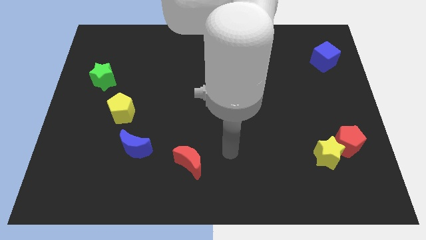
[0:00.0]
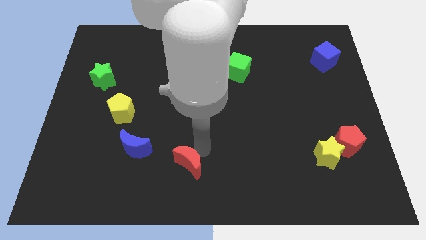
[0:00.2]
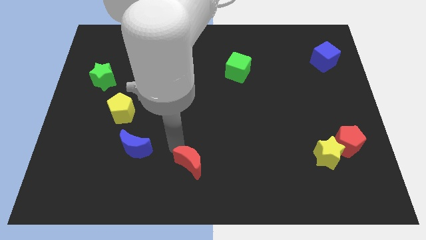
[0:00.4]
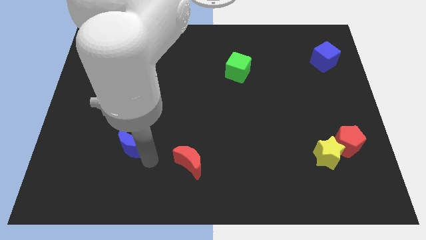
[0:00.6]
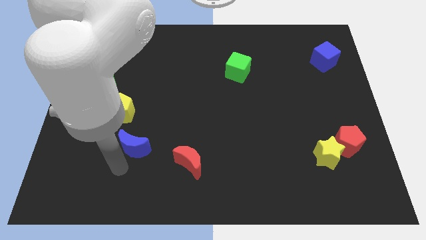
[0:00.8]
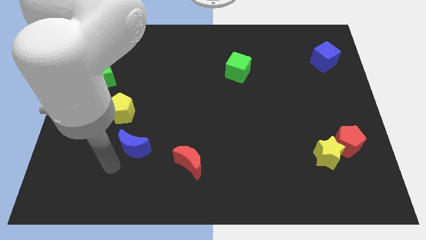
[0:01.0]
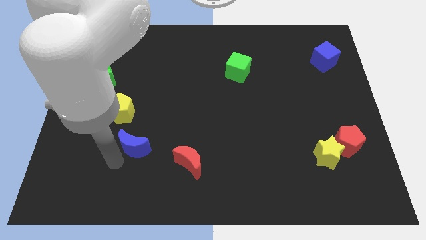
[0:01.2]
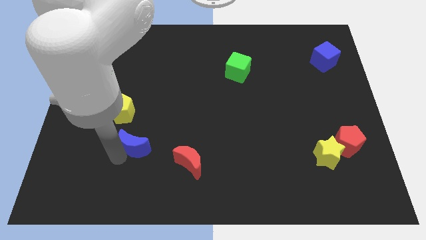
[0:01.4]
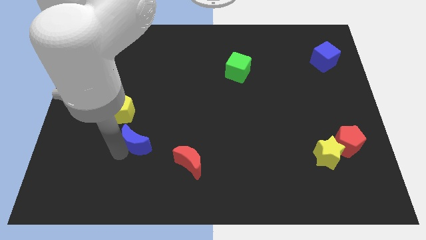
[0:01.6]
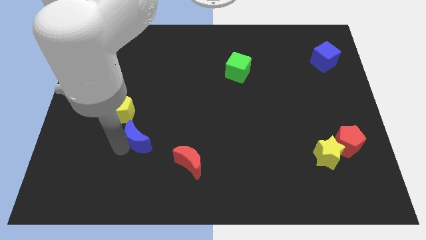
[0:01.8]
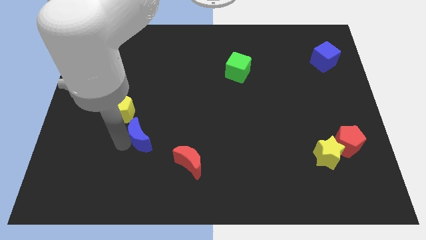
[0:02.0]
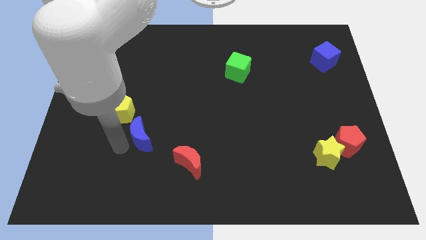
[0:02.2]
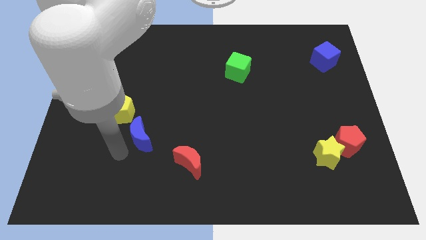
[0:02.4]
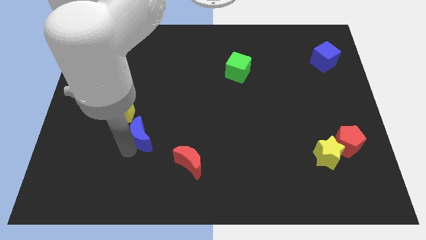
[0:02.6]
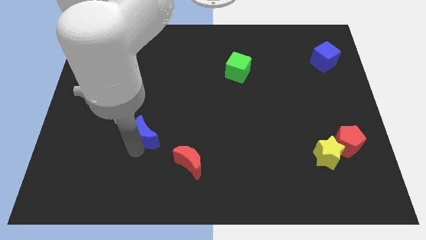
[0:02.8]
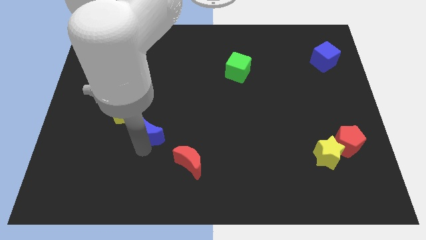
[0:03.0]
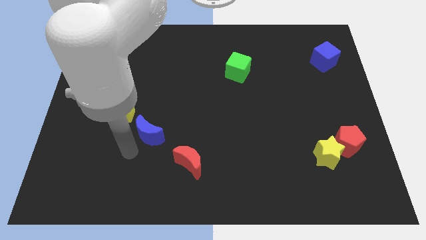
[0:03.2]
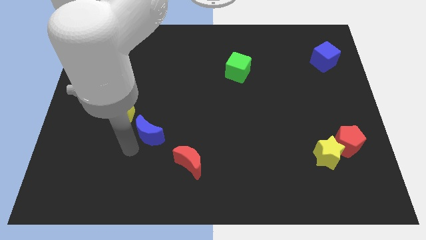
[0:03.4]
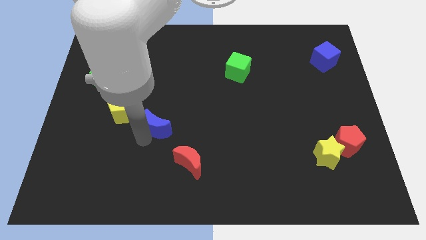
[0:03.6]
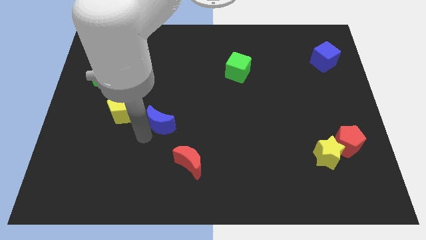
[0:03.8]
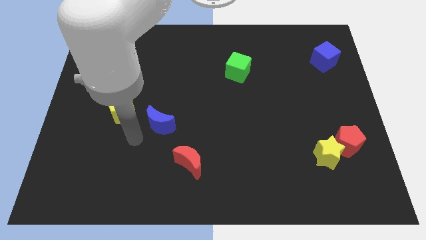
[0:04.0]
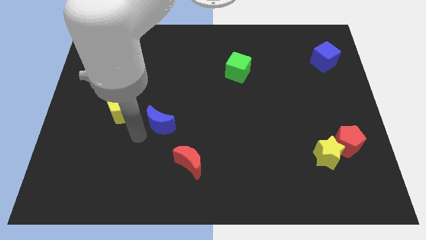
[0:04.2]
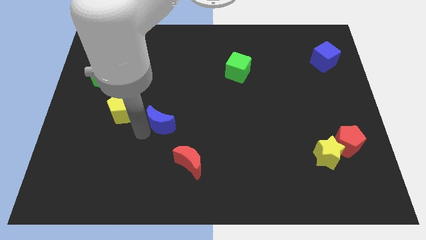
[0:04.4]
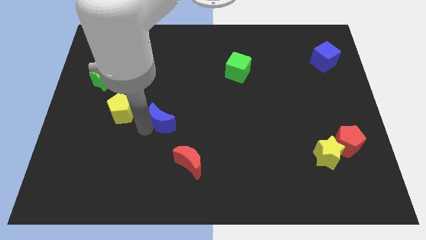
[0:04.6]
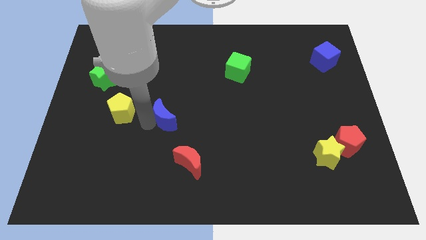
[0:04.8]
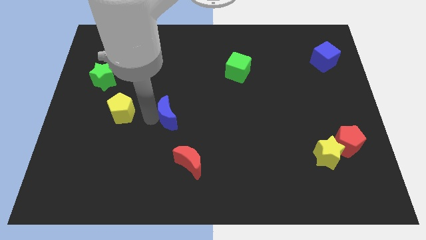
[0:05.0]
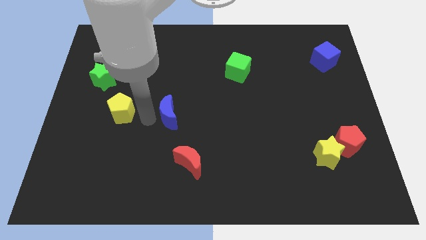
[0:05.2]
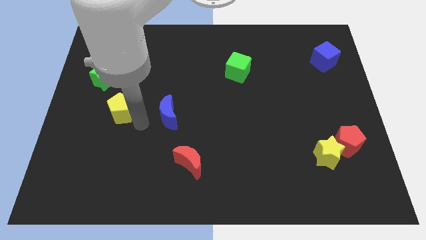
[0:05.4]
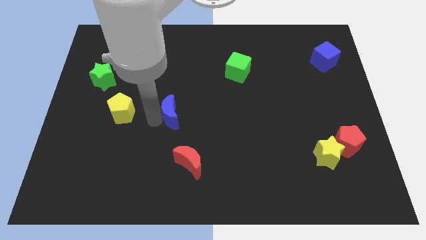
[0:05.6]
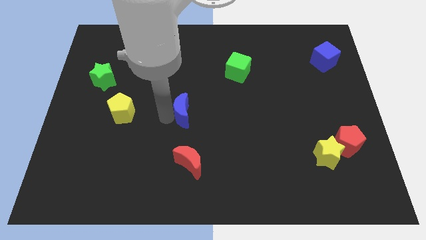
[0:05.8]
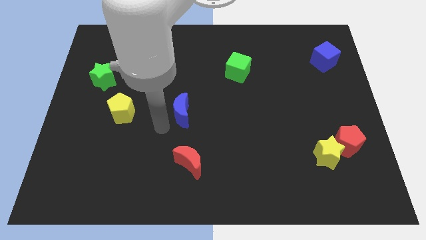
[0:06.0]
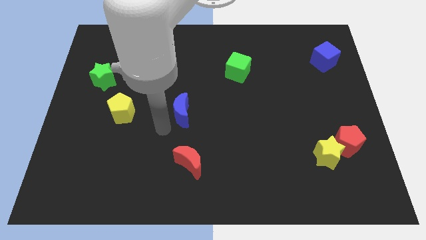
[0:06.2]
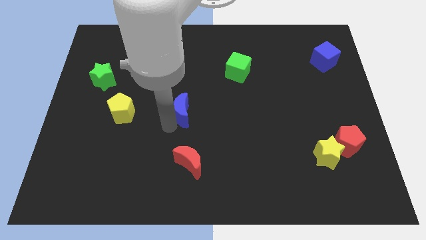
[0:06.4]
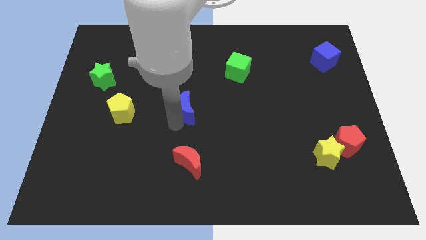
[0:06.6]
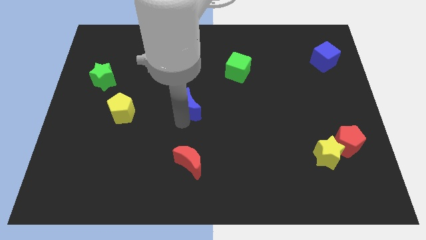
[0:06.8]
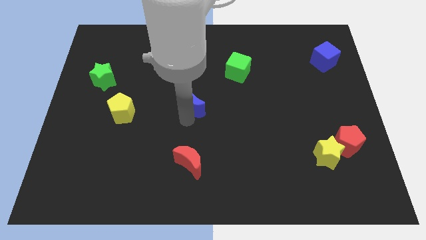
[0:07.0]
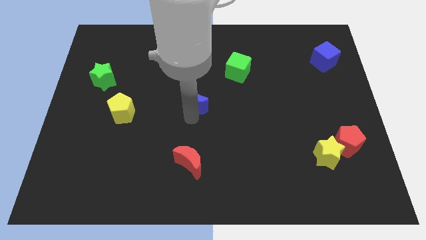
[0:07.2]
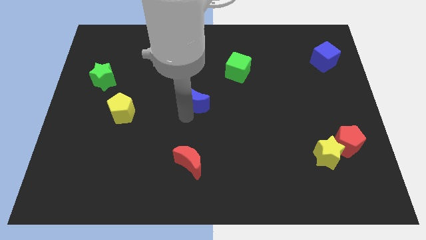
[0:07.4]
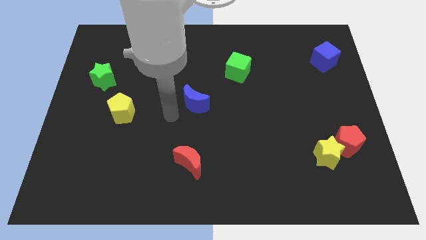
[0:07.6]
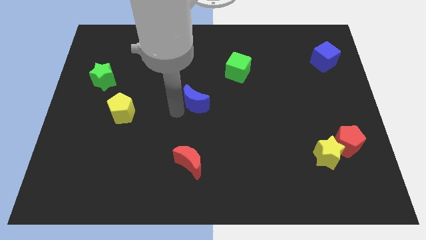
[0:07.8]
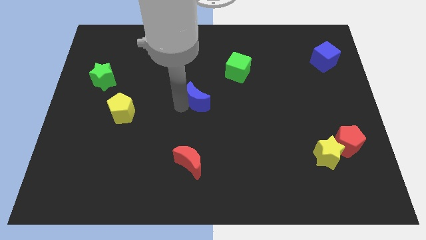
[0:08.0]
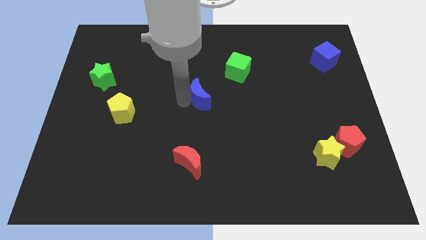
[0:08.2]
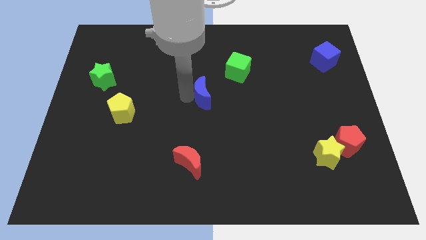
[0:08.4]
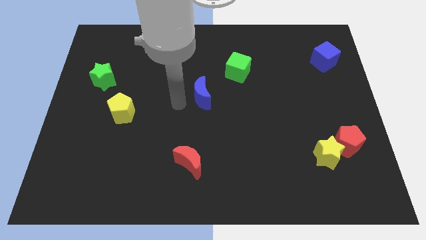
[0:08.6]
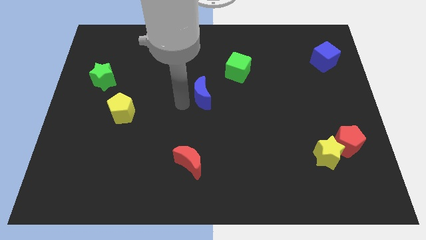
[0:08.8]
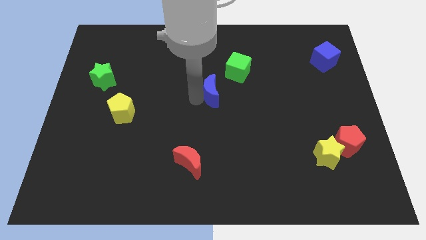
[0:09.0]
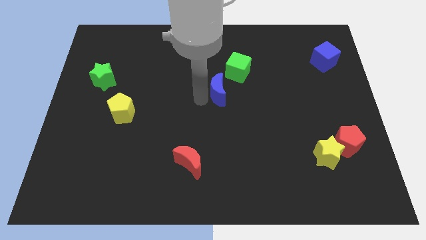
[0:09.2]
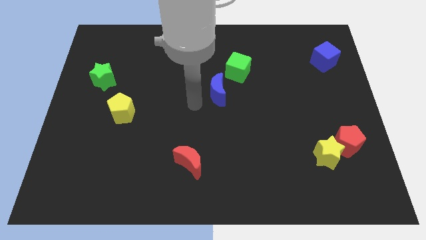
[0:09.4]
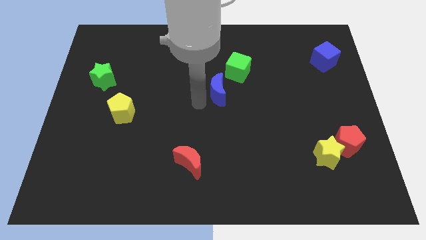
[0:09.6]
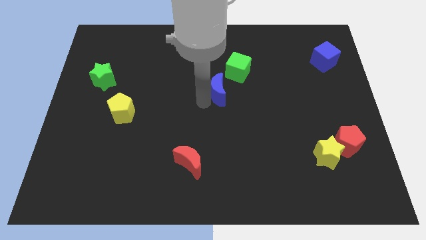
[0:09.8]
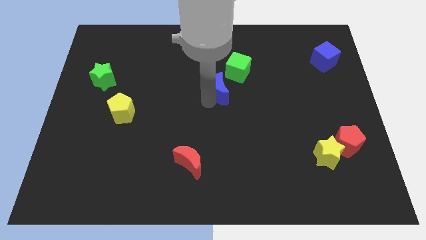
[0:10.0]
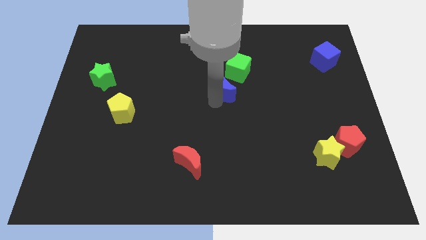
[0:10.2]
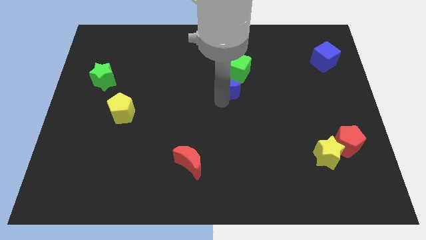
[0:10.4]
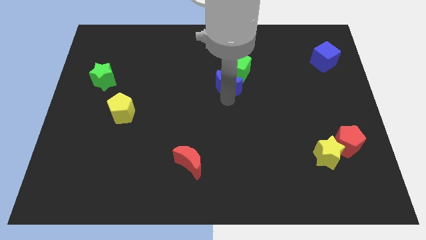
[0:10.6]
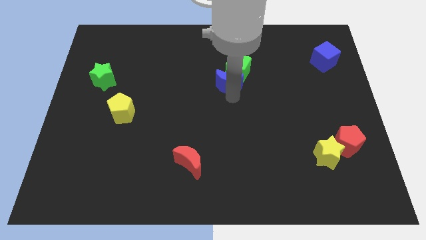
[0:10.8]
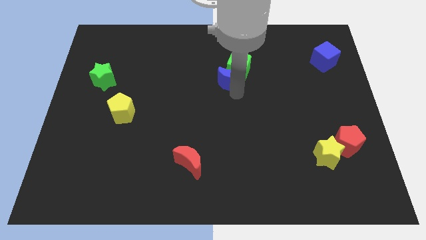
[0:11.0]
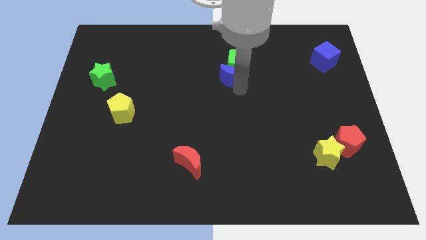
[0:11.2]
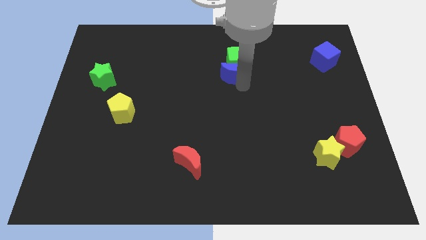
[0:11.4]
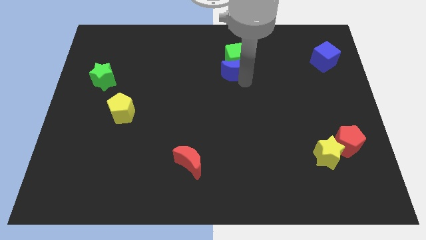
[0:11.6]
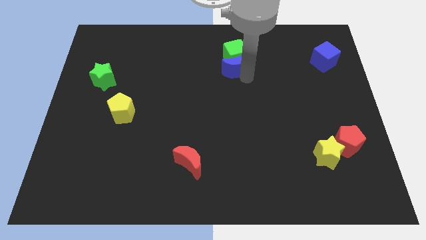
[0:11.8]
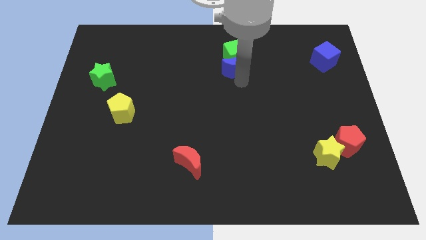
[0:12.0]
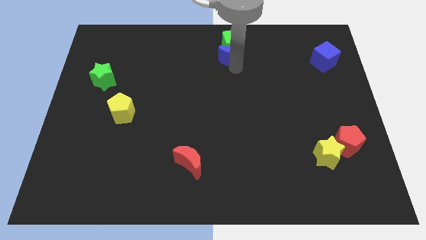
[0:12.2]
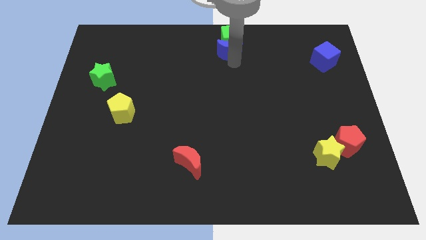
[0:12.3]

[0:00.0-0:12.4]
slide the blue moon to the towards your base

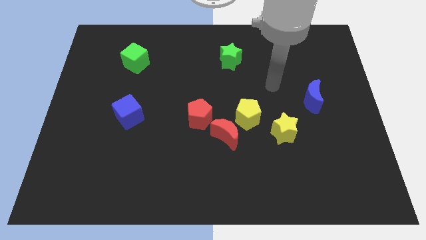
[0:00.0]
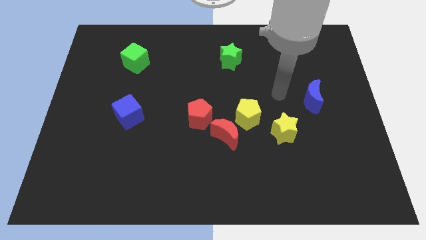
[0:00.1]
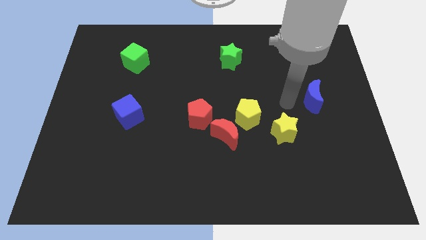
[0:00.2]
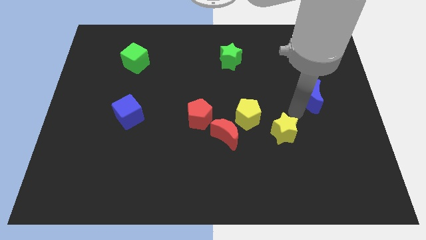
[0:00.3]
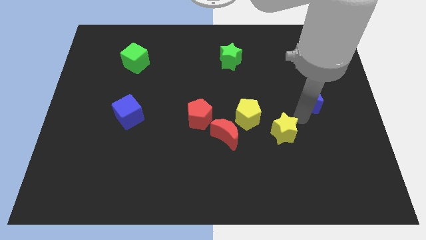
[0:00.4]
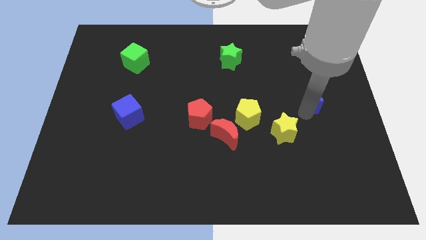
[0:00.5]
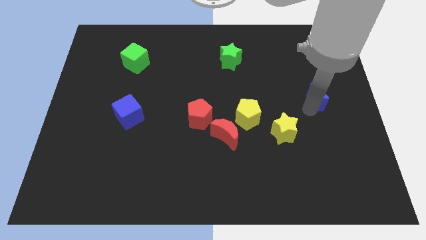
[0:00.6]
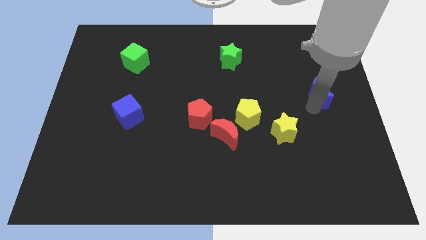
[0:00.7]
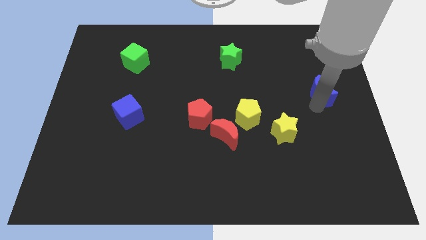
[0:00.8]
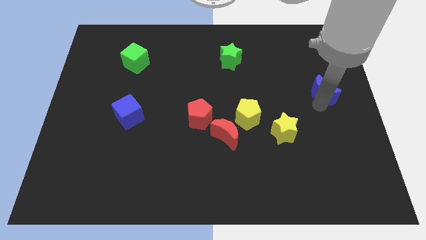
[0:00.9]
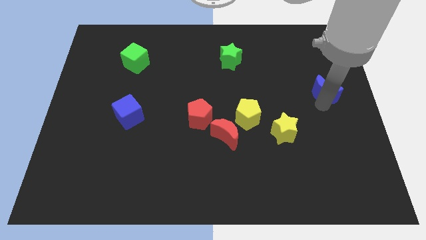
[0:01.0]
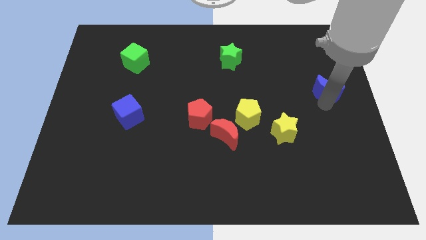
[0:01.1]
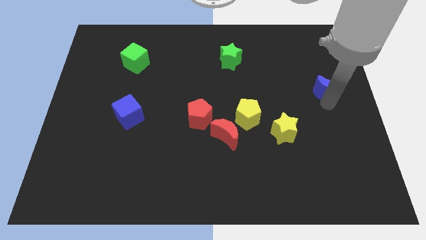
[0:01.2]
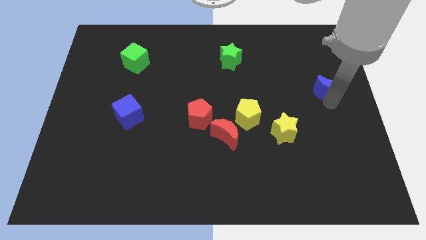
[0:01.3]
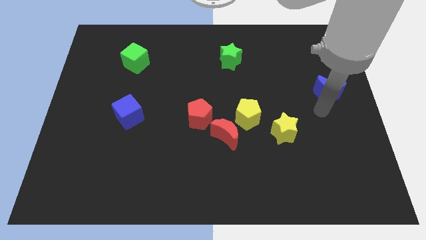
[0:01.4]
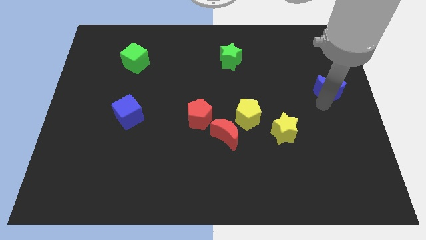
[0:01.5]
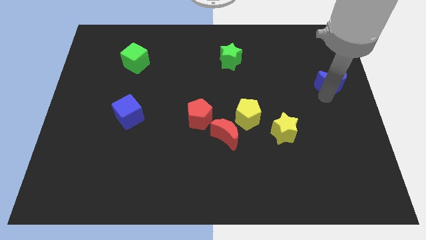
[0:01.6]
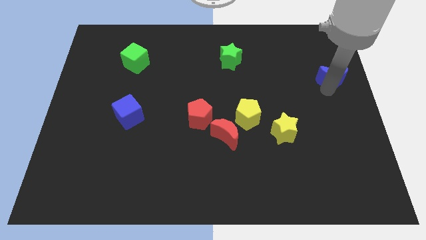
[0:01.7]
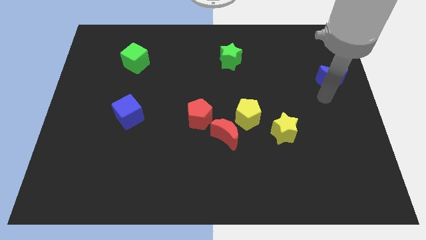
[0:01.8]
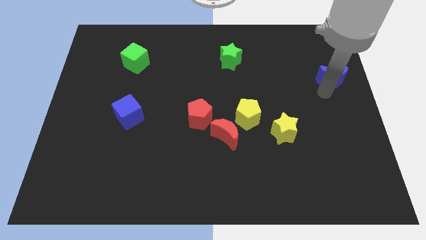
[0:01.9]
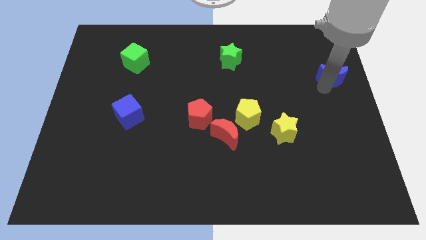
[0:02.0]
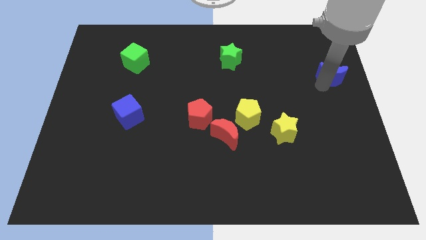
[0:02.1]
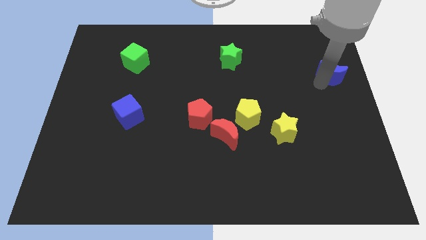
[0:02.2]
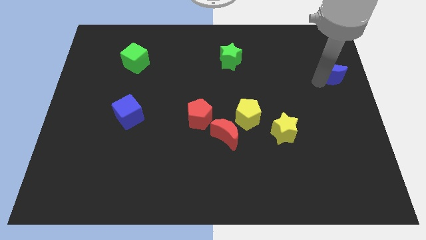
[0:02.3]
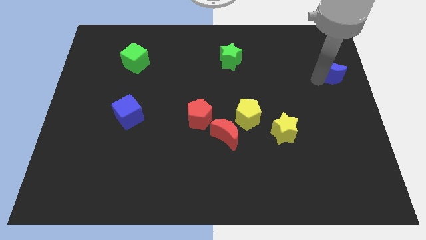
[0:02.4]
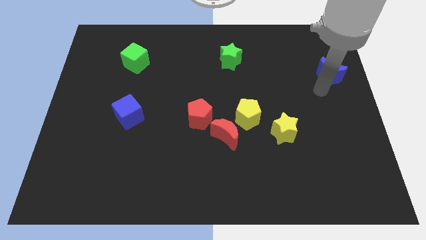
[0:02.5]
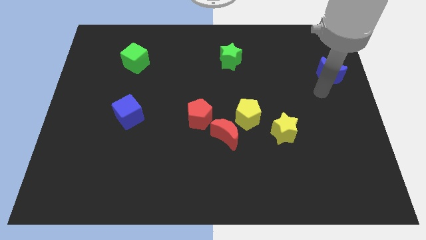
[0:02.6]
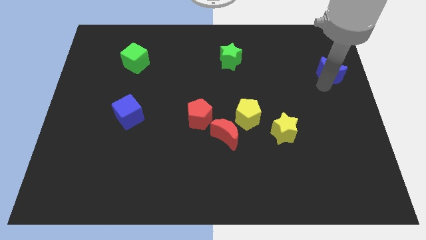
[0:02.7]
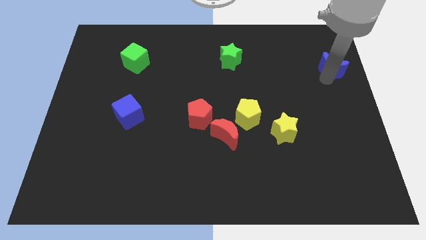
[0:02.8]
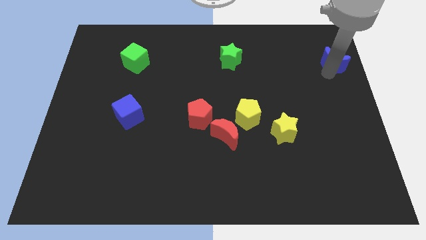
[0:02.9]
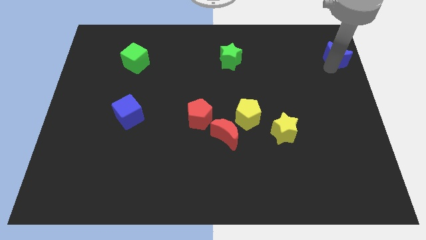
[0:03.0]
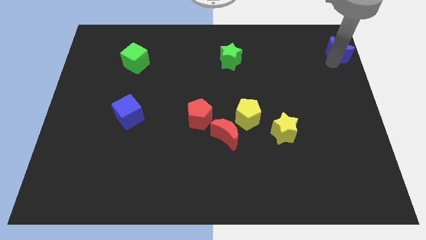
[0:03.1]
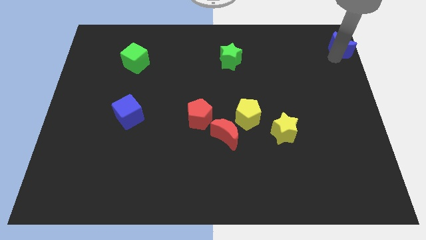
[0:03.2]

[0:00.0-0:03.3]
put the blue moon to the top right
